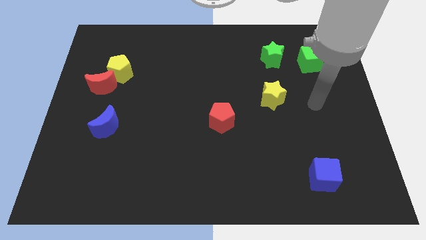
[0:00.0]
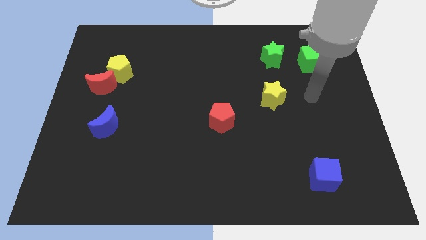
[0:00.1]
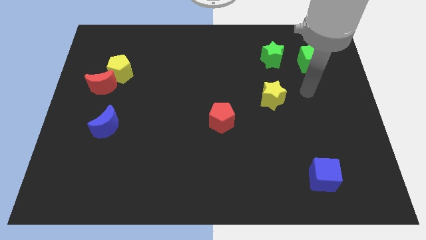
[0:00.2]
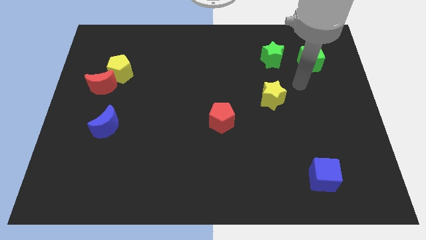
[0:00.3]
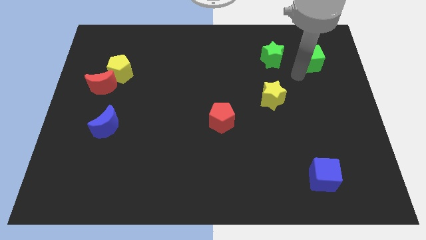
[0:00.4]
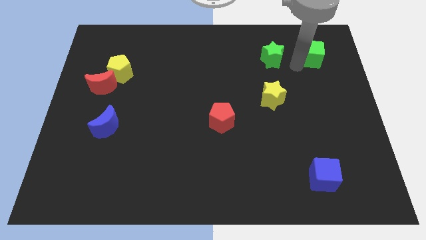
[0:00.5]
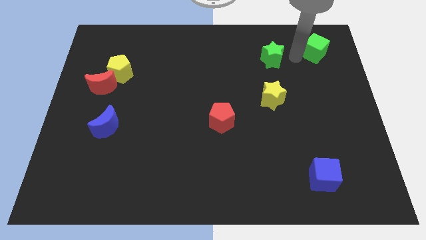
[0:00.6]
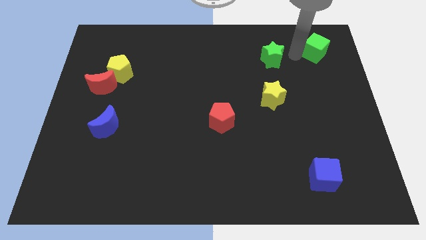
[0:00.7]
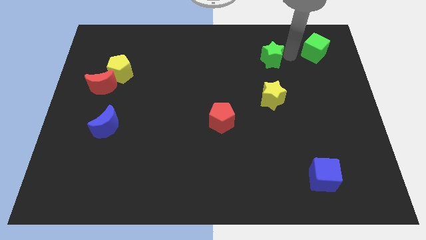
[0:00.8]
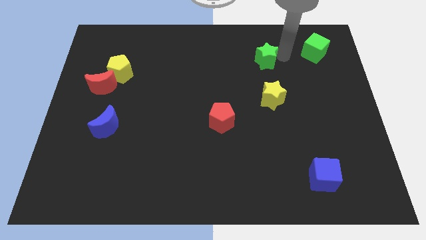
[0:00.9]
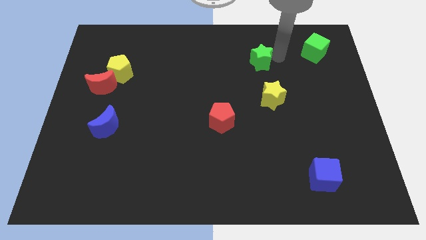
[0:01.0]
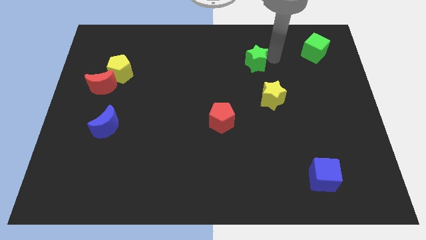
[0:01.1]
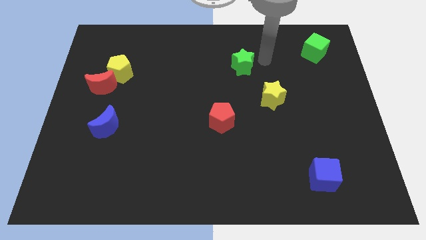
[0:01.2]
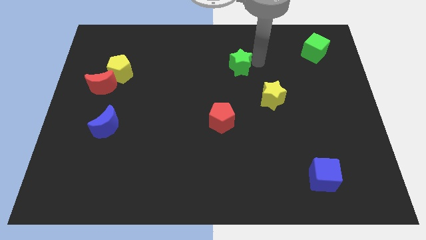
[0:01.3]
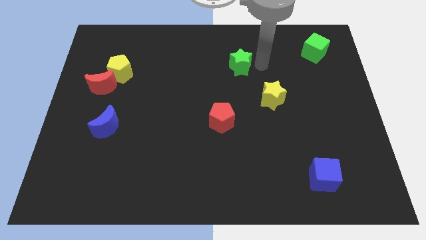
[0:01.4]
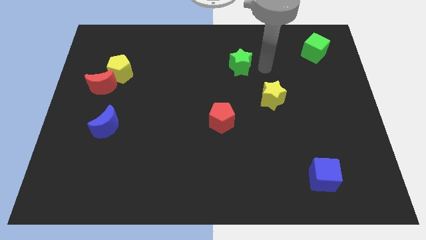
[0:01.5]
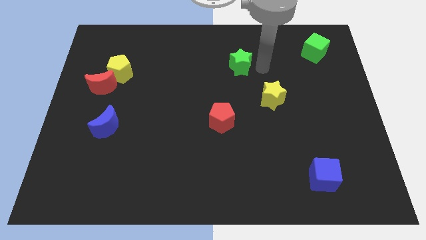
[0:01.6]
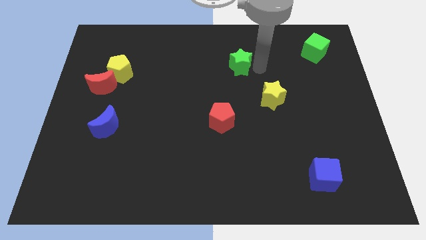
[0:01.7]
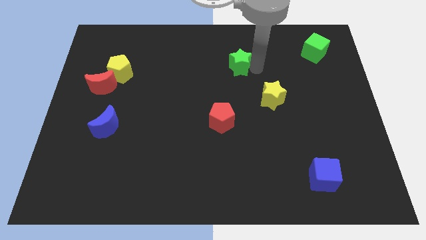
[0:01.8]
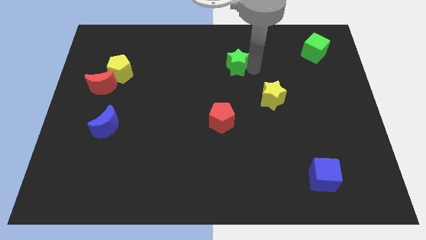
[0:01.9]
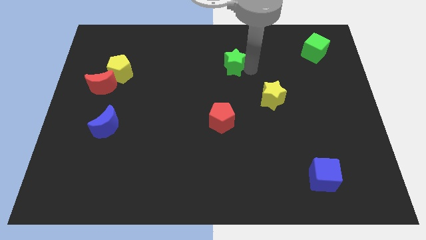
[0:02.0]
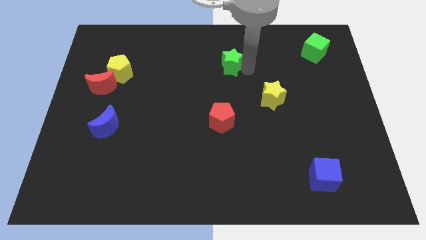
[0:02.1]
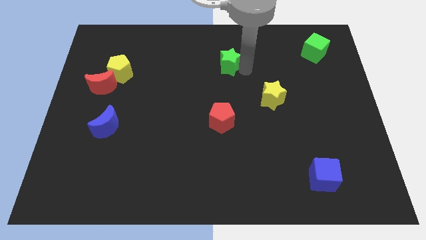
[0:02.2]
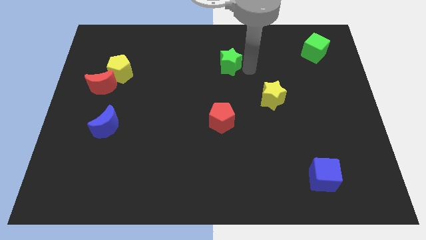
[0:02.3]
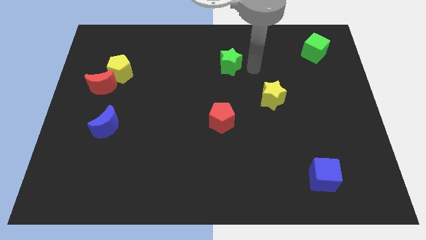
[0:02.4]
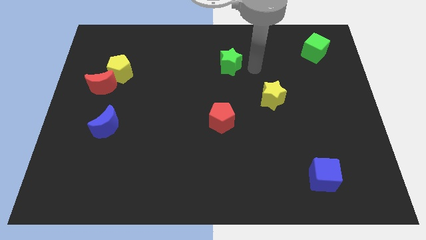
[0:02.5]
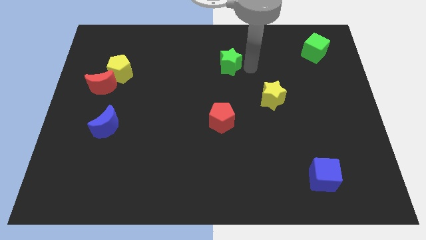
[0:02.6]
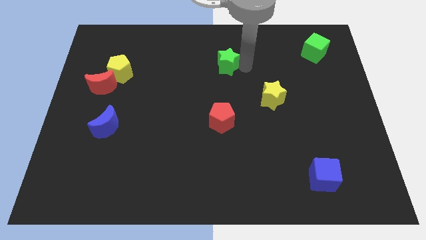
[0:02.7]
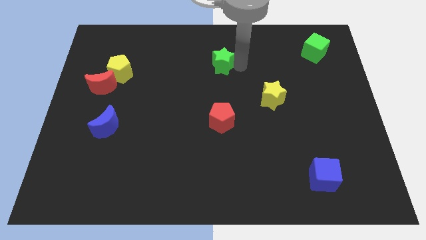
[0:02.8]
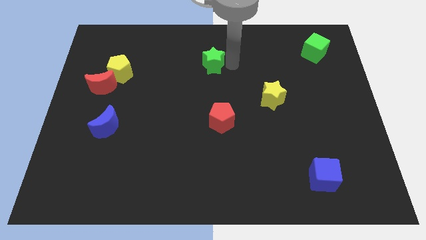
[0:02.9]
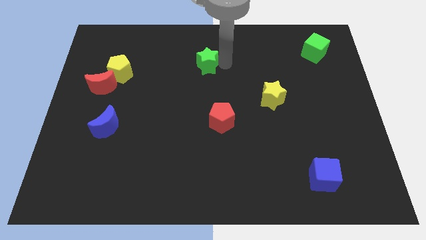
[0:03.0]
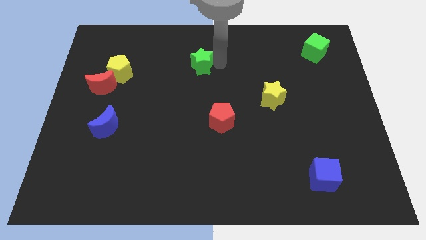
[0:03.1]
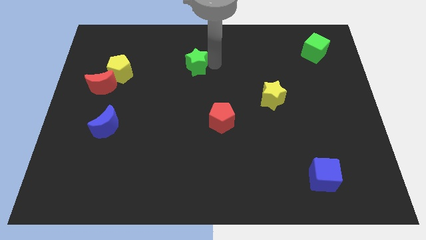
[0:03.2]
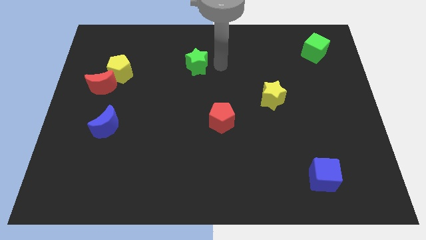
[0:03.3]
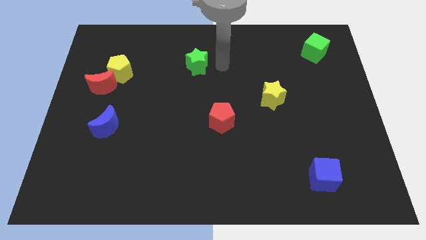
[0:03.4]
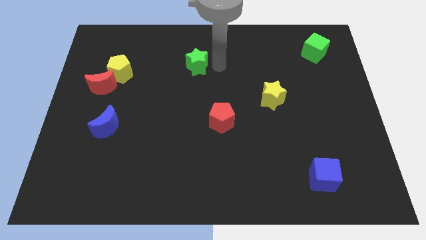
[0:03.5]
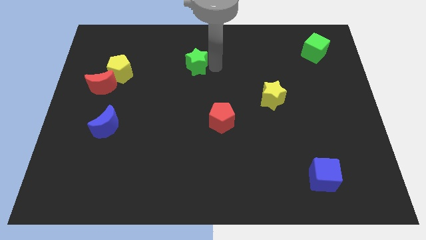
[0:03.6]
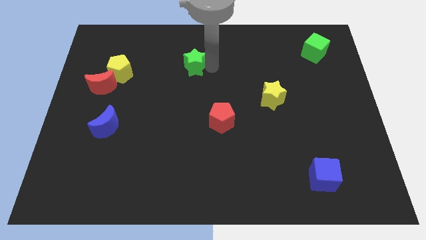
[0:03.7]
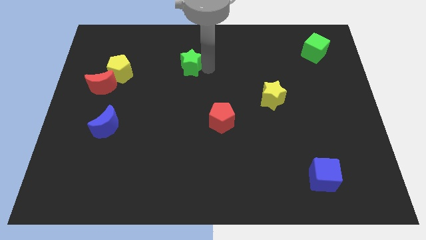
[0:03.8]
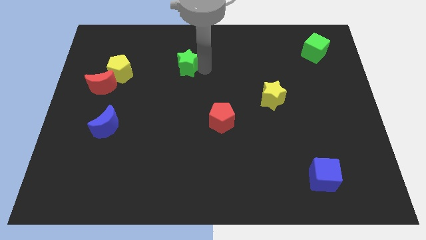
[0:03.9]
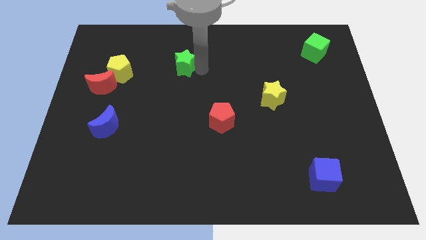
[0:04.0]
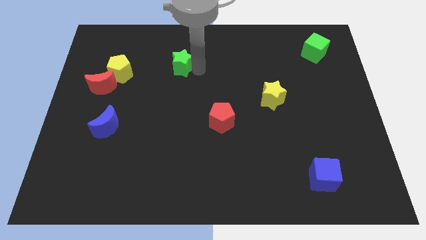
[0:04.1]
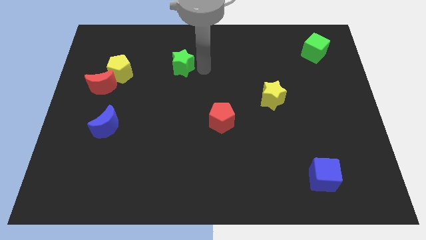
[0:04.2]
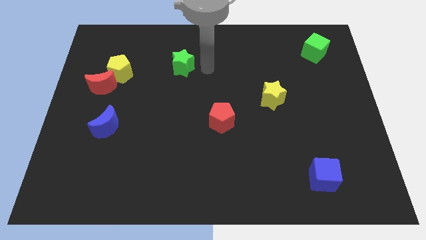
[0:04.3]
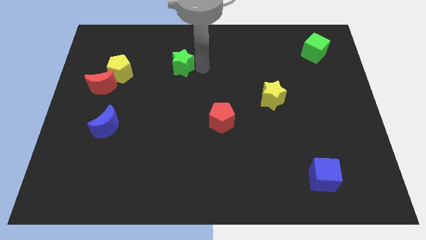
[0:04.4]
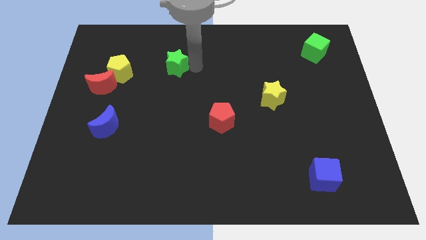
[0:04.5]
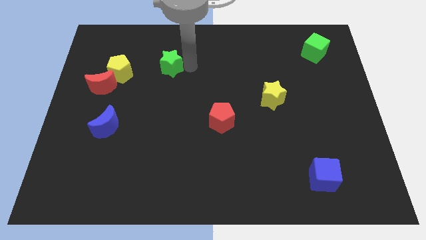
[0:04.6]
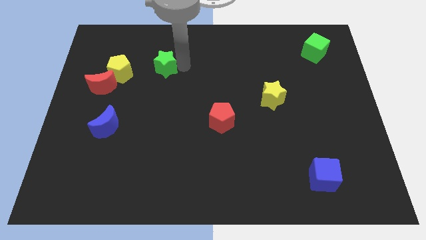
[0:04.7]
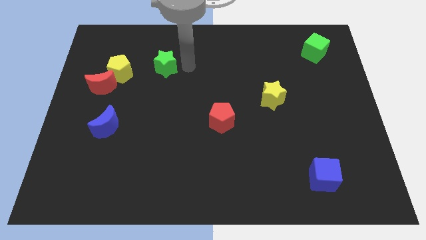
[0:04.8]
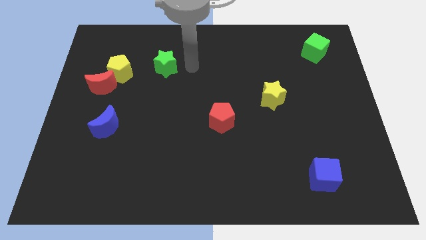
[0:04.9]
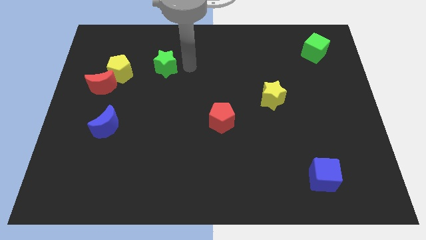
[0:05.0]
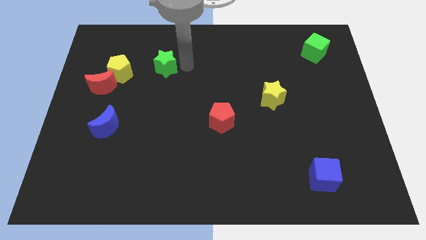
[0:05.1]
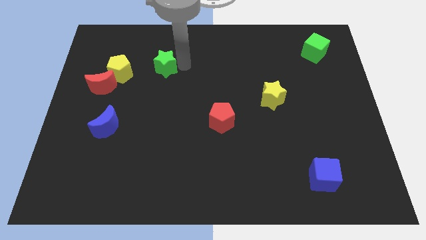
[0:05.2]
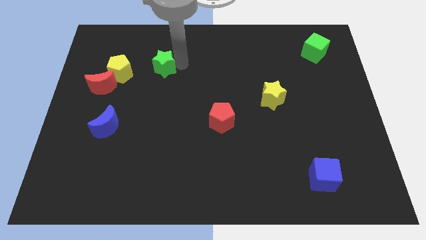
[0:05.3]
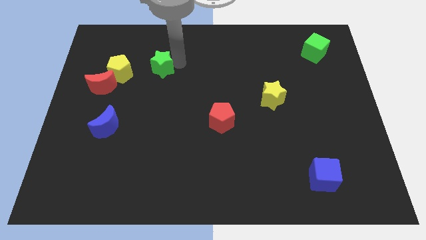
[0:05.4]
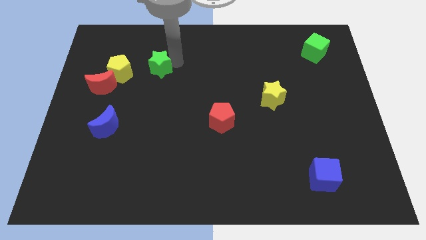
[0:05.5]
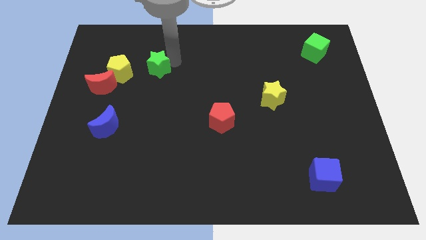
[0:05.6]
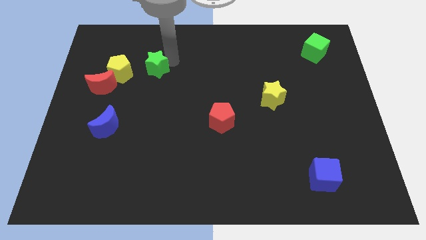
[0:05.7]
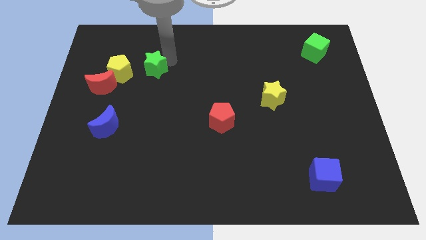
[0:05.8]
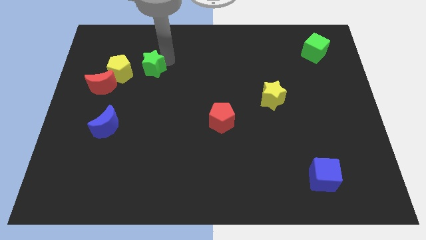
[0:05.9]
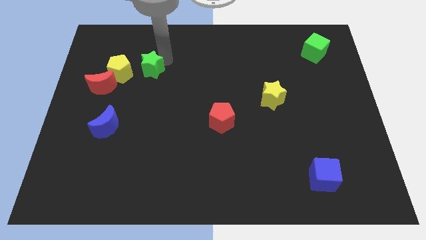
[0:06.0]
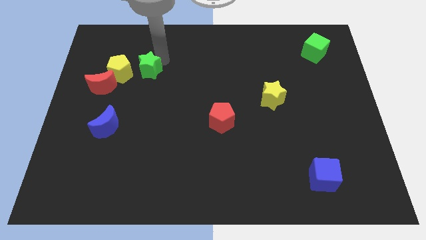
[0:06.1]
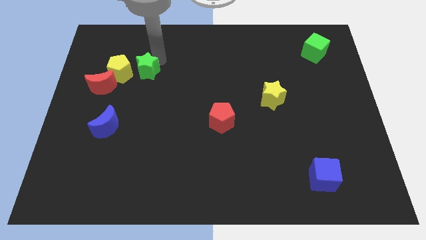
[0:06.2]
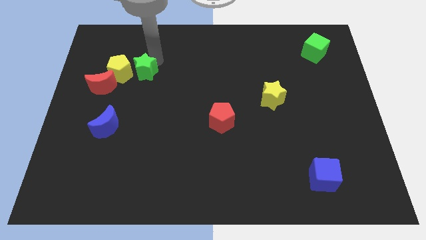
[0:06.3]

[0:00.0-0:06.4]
move the green star next to the yellow pentagon

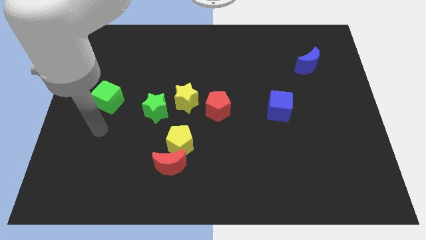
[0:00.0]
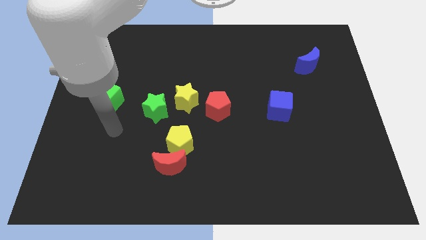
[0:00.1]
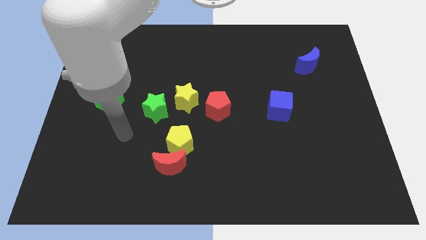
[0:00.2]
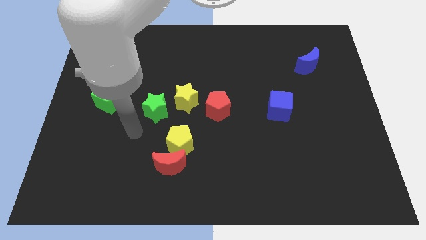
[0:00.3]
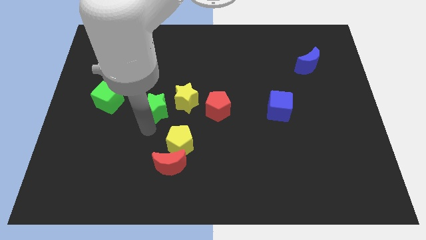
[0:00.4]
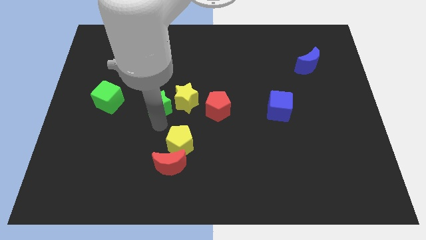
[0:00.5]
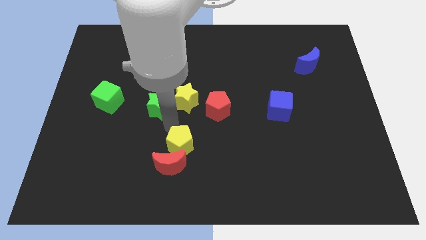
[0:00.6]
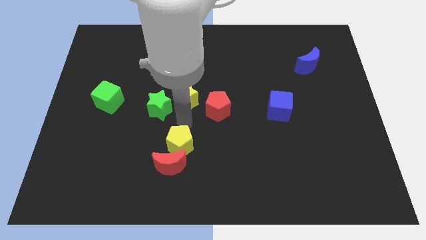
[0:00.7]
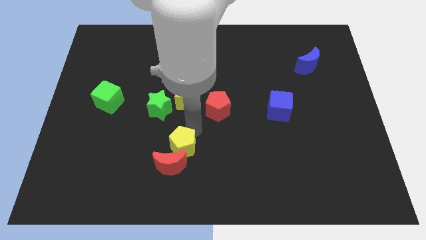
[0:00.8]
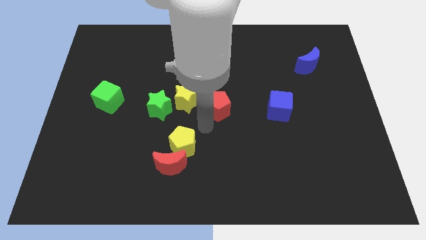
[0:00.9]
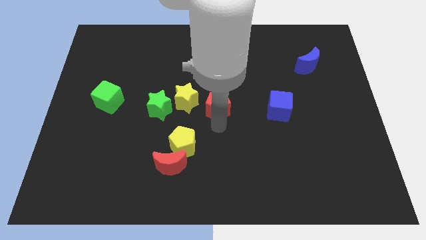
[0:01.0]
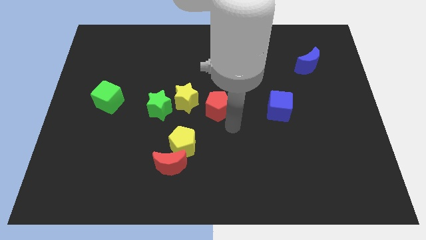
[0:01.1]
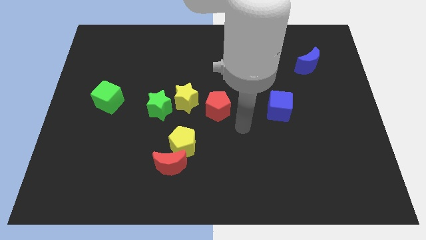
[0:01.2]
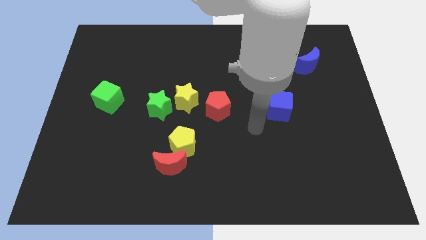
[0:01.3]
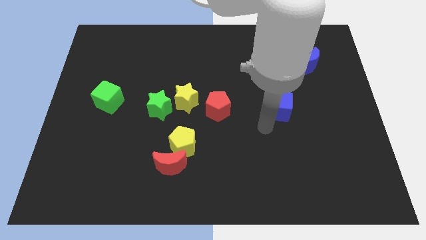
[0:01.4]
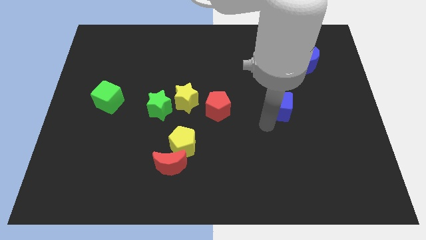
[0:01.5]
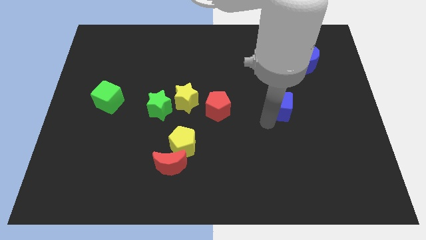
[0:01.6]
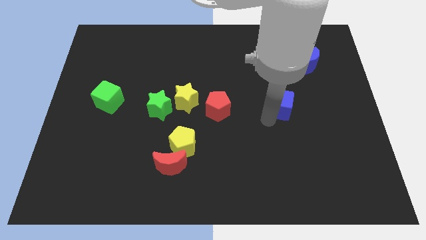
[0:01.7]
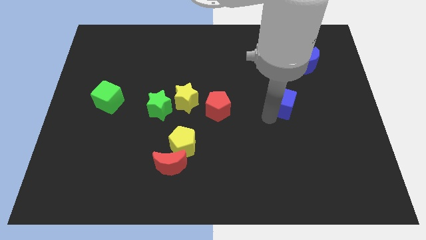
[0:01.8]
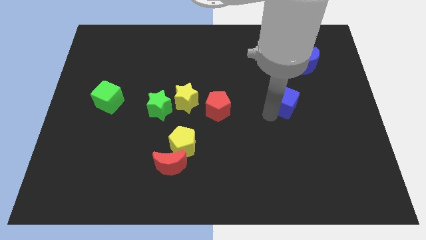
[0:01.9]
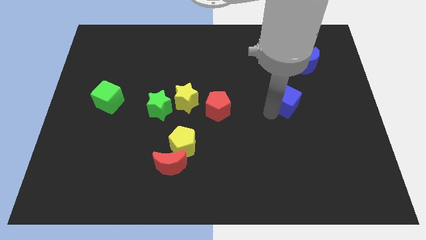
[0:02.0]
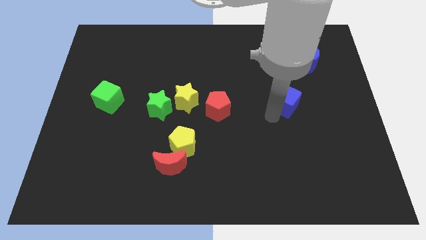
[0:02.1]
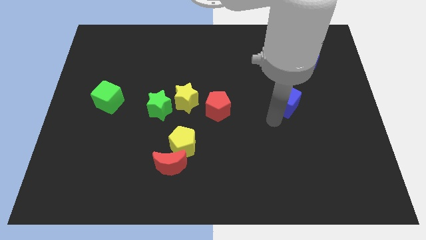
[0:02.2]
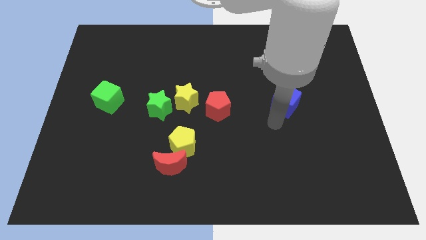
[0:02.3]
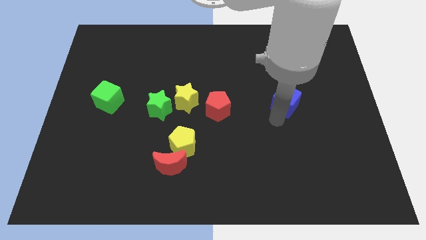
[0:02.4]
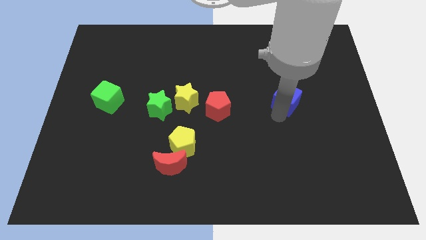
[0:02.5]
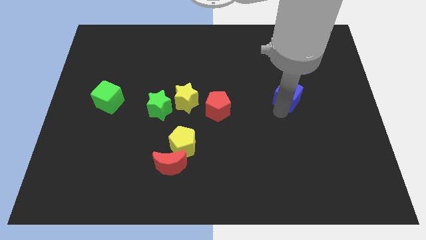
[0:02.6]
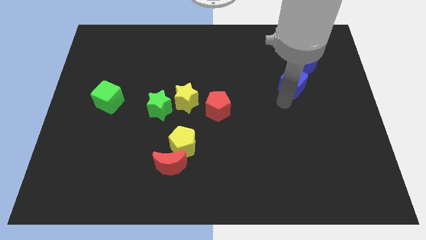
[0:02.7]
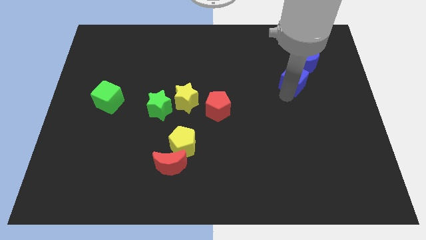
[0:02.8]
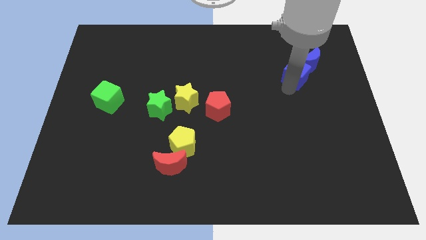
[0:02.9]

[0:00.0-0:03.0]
push the blue cube to the blue moon
